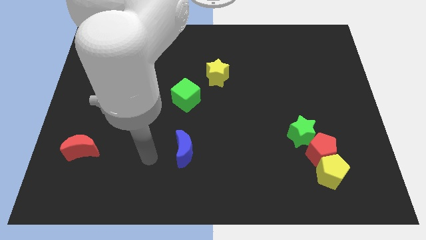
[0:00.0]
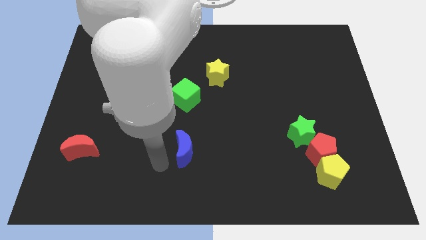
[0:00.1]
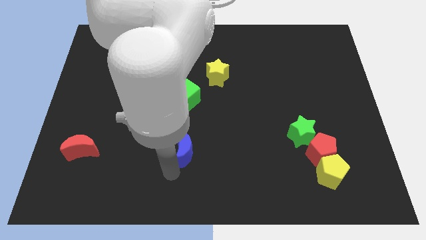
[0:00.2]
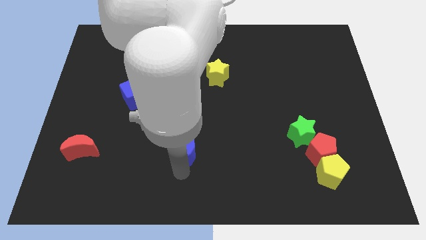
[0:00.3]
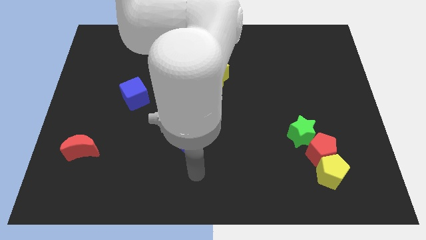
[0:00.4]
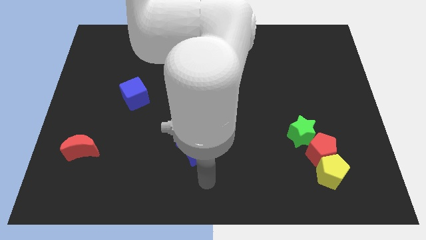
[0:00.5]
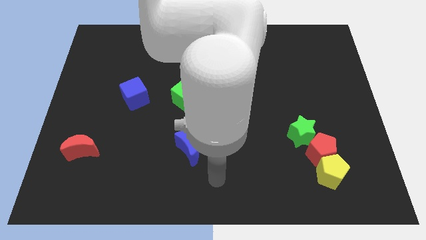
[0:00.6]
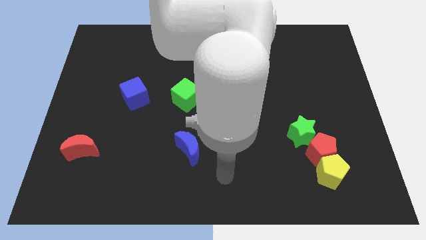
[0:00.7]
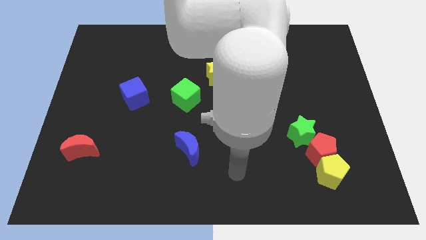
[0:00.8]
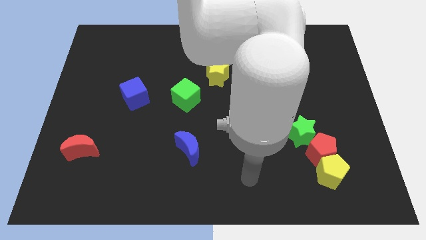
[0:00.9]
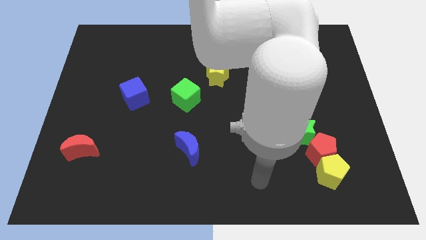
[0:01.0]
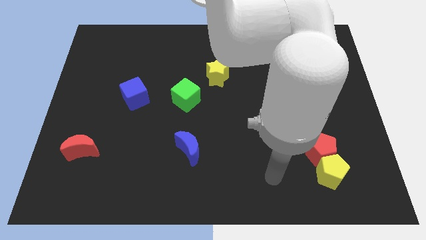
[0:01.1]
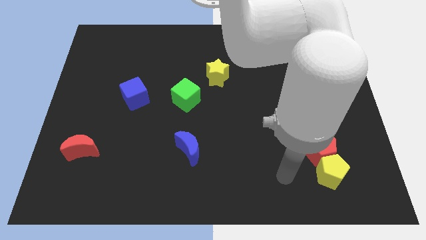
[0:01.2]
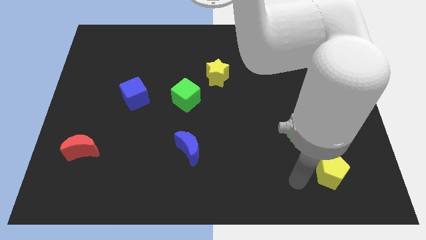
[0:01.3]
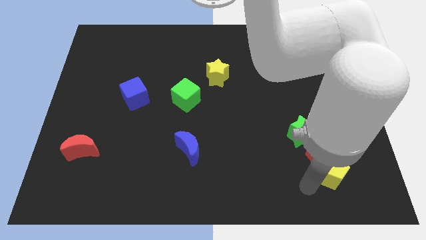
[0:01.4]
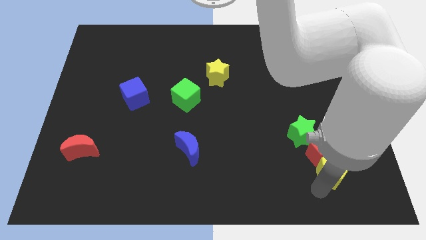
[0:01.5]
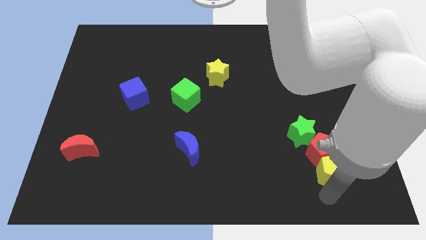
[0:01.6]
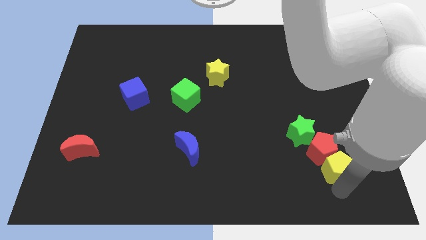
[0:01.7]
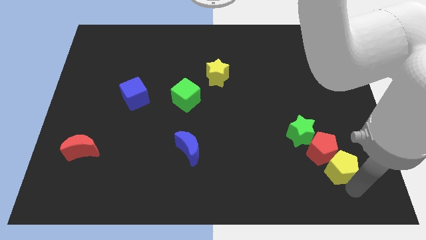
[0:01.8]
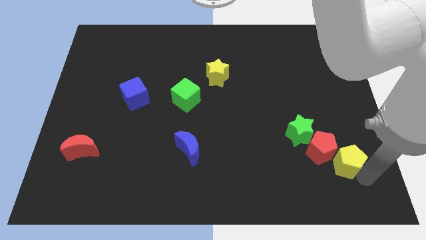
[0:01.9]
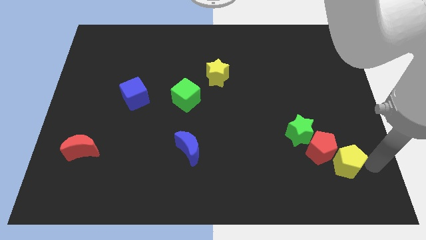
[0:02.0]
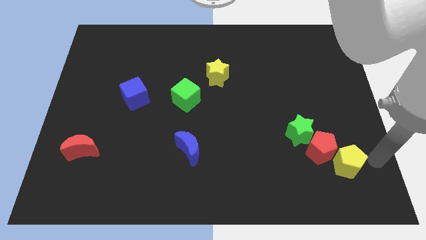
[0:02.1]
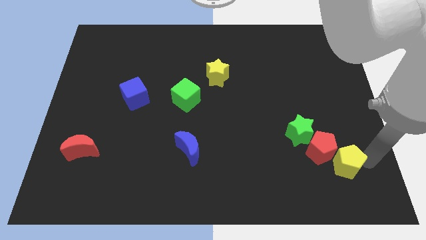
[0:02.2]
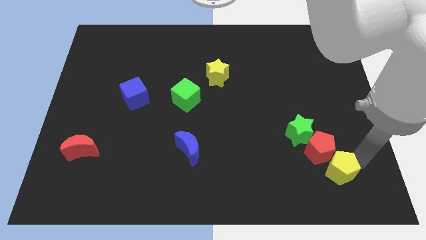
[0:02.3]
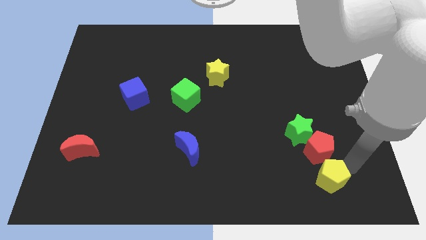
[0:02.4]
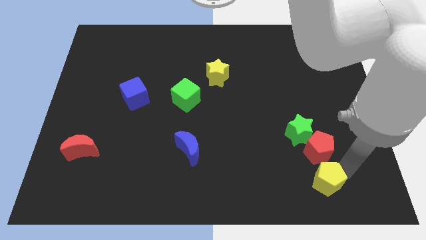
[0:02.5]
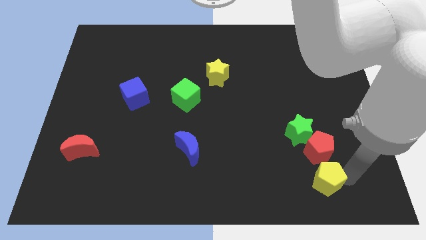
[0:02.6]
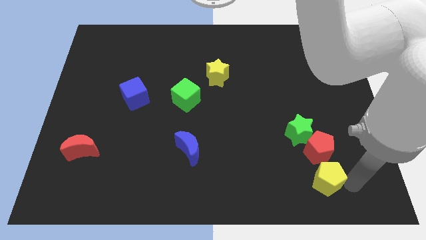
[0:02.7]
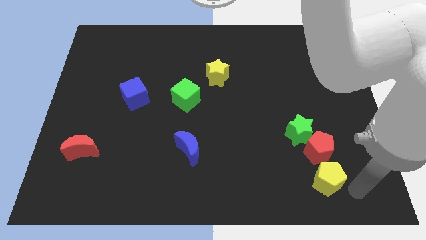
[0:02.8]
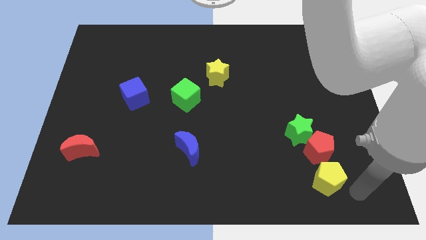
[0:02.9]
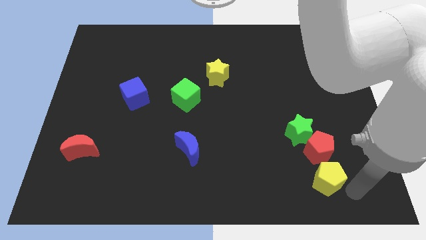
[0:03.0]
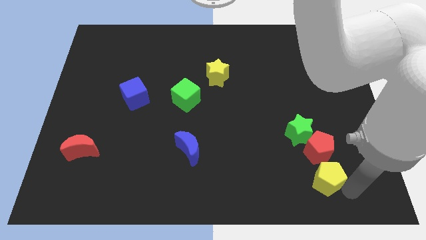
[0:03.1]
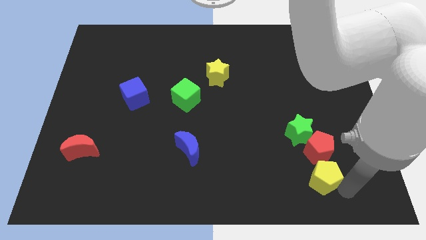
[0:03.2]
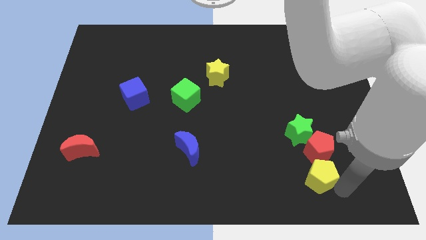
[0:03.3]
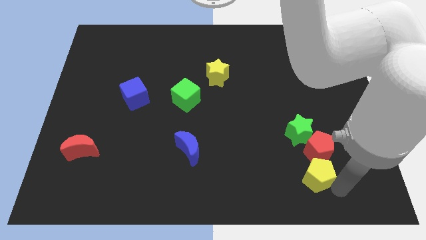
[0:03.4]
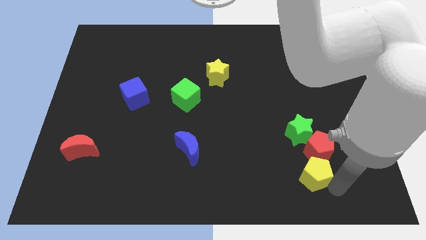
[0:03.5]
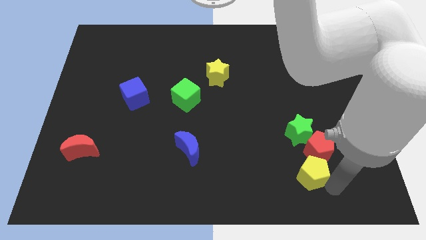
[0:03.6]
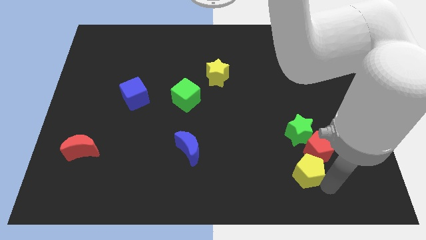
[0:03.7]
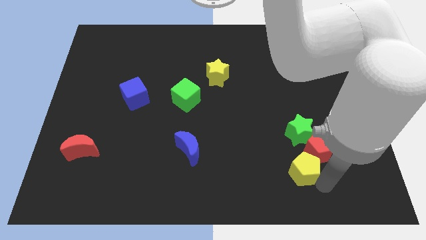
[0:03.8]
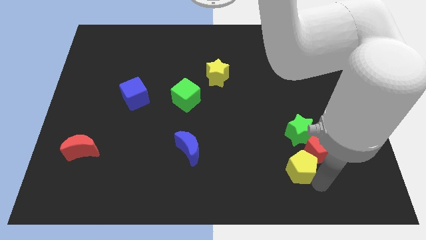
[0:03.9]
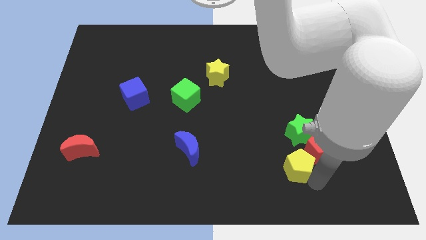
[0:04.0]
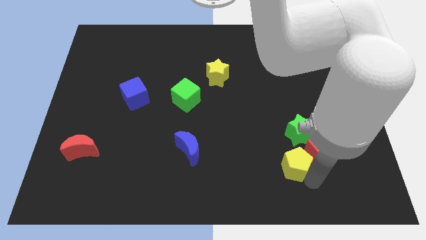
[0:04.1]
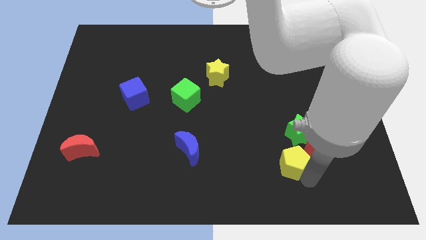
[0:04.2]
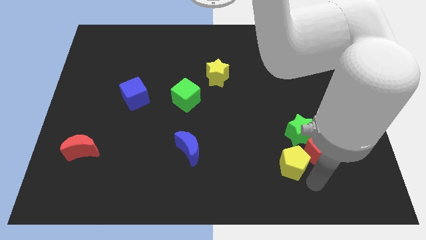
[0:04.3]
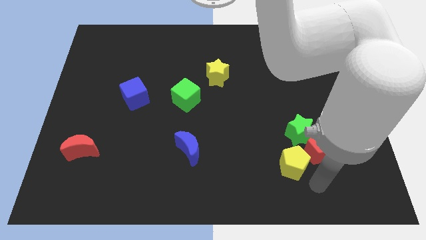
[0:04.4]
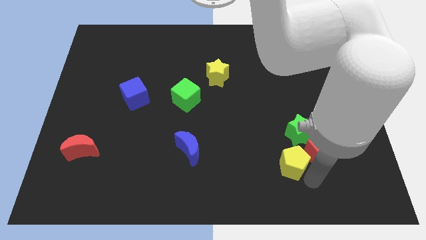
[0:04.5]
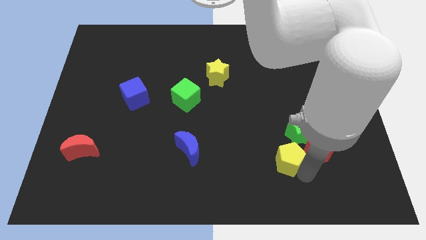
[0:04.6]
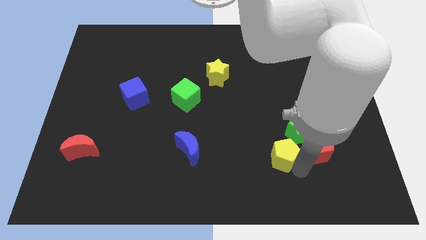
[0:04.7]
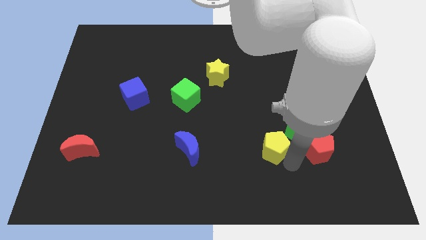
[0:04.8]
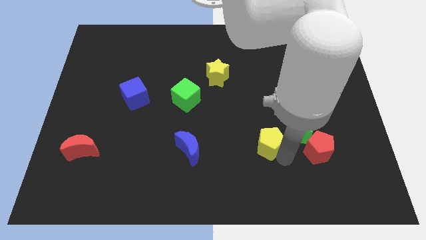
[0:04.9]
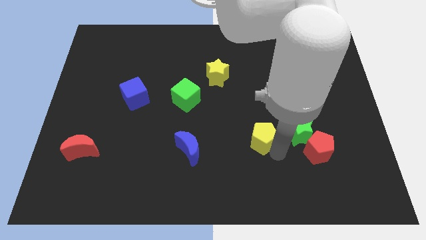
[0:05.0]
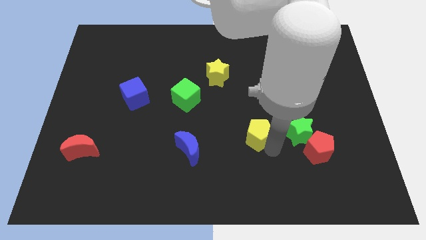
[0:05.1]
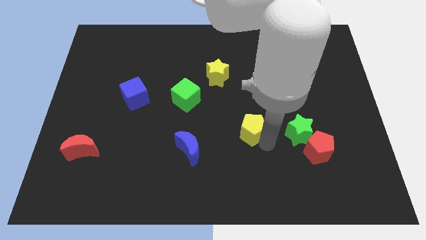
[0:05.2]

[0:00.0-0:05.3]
put the yellow pentagon to the middle

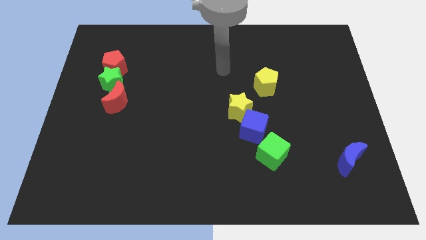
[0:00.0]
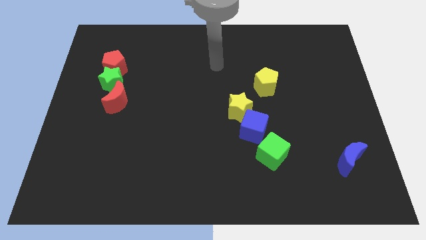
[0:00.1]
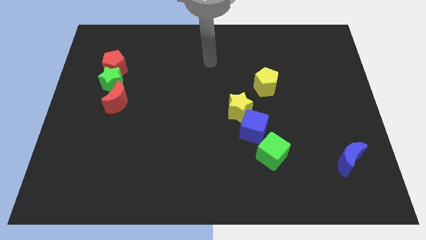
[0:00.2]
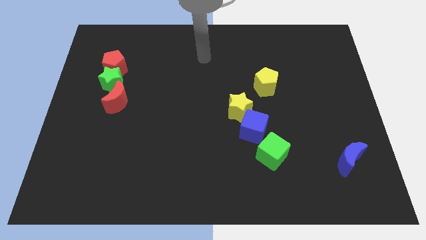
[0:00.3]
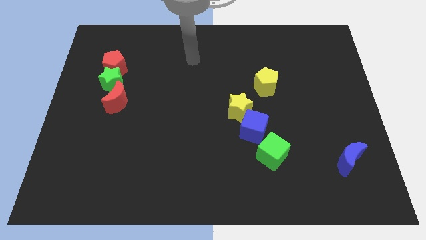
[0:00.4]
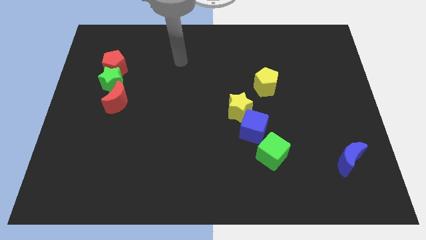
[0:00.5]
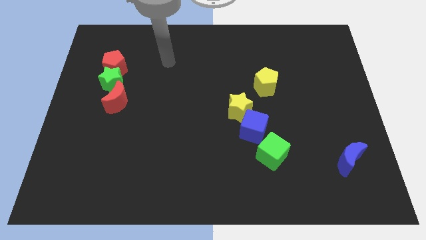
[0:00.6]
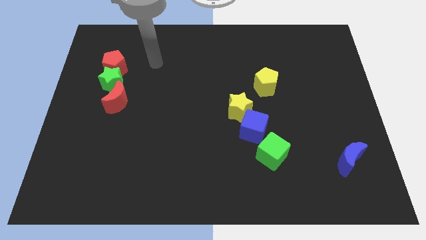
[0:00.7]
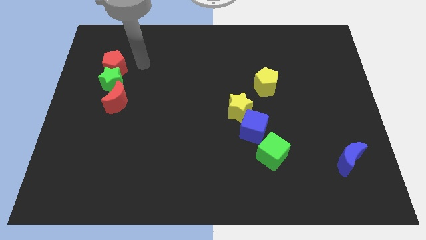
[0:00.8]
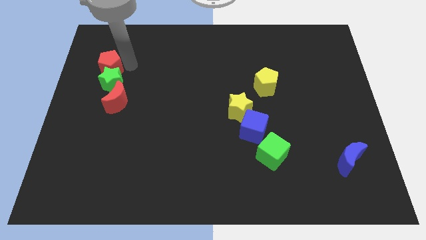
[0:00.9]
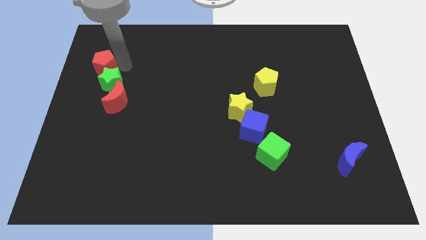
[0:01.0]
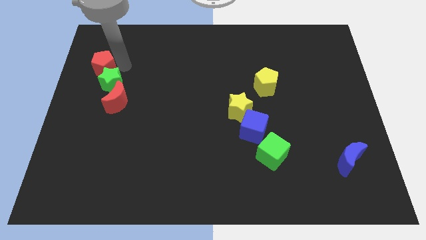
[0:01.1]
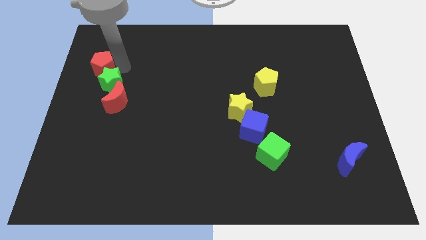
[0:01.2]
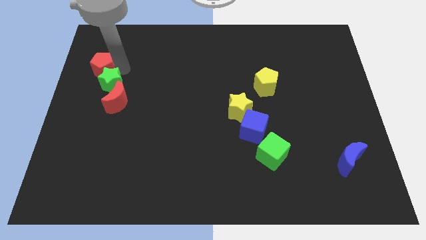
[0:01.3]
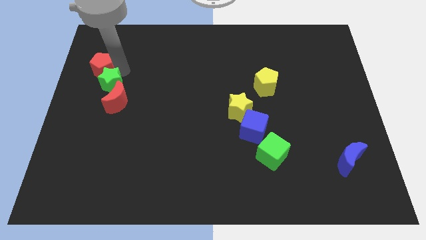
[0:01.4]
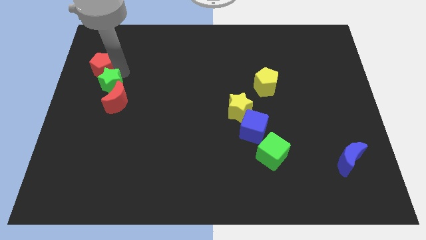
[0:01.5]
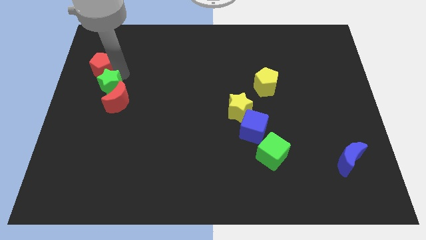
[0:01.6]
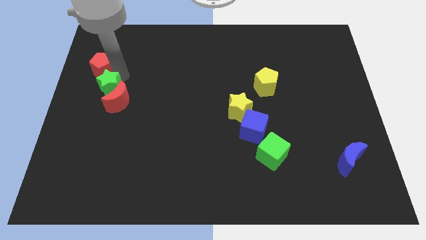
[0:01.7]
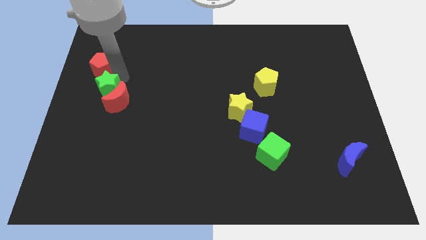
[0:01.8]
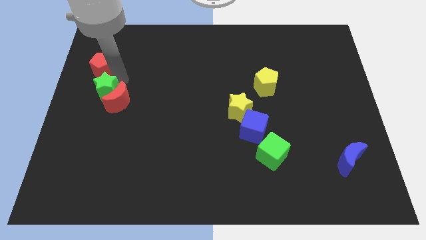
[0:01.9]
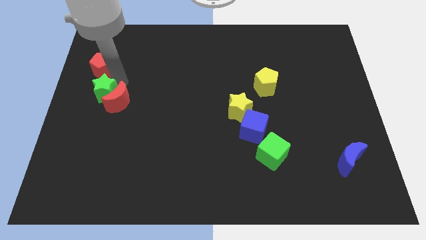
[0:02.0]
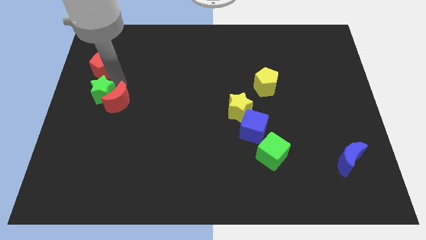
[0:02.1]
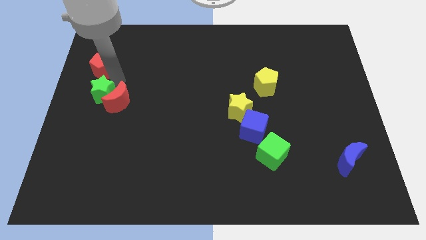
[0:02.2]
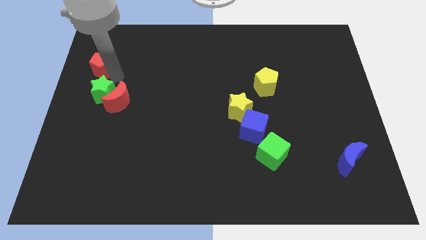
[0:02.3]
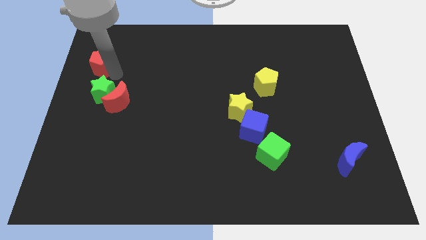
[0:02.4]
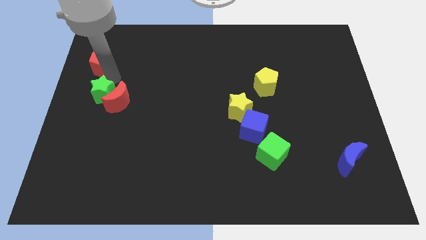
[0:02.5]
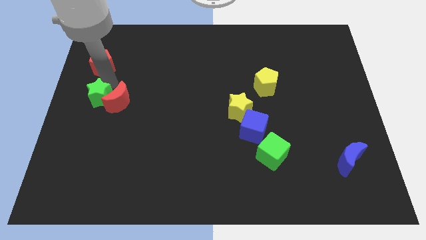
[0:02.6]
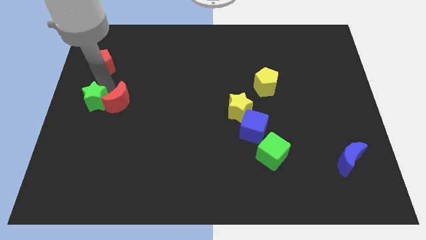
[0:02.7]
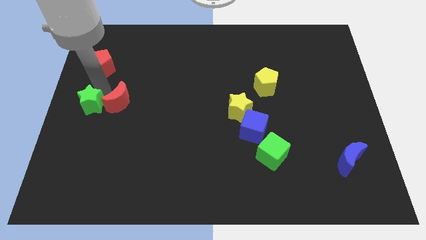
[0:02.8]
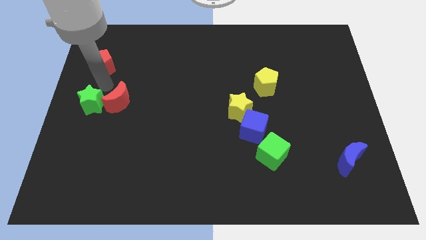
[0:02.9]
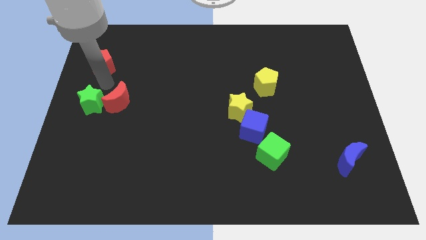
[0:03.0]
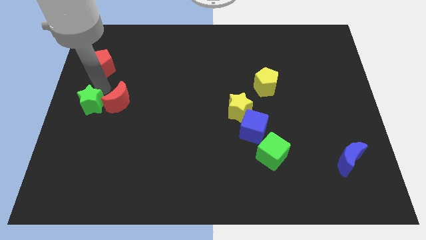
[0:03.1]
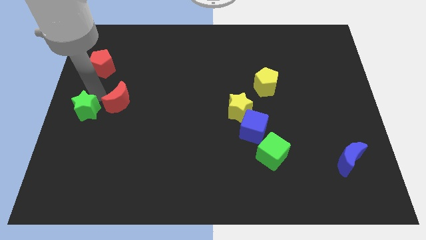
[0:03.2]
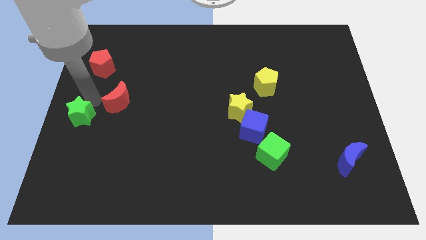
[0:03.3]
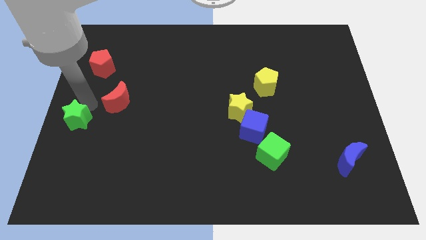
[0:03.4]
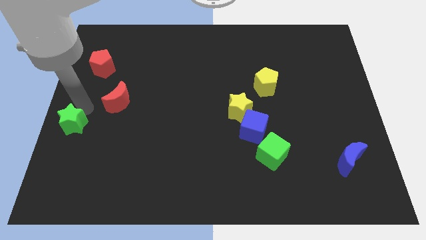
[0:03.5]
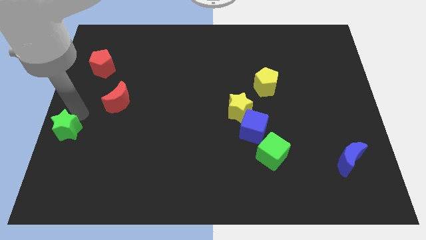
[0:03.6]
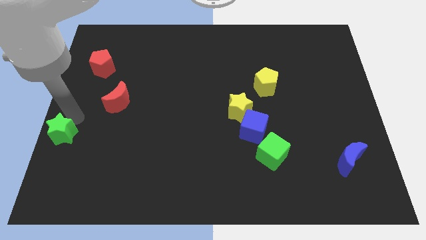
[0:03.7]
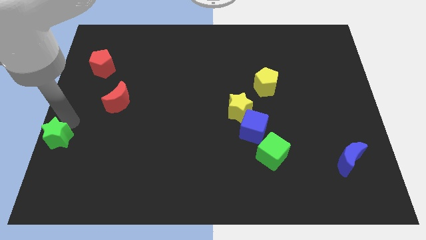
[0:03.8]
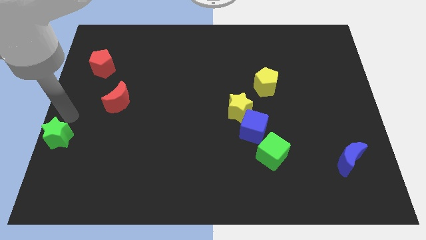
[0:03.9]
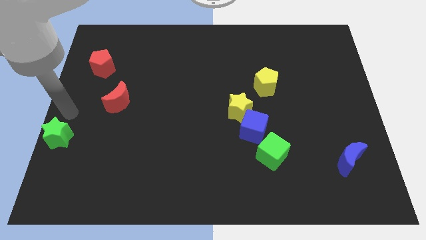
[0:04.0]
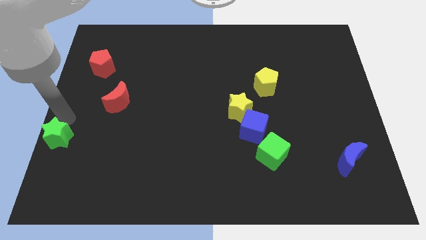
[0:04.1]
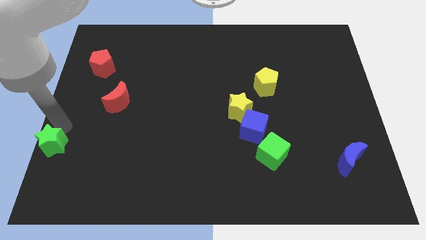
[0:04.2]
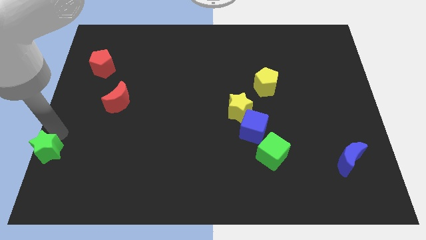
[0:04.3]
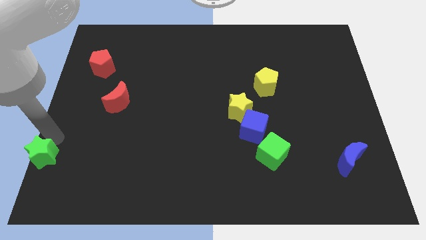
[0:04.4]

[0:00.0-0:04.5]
slide the green star to the bottom left of the board
